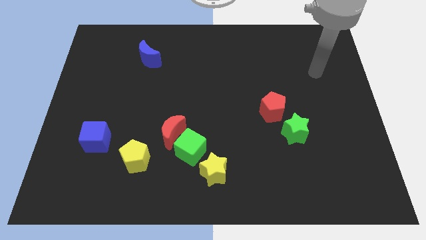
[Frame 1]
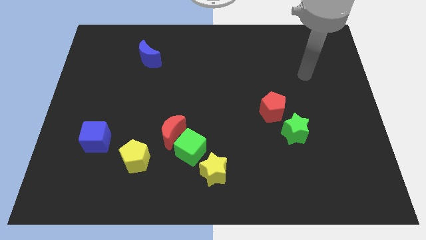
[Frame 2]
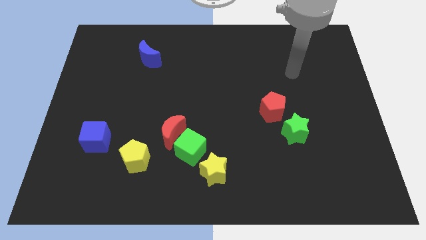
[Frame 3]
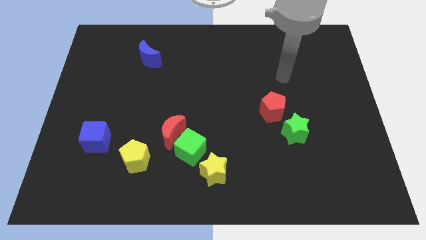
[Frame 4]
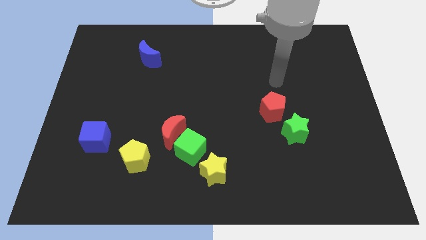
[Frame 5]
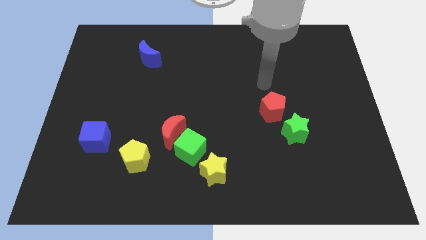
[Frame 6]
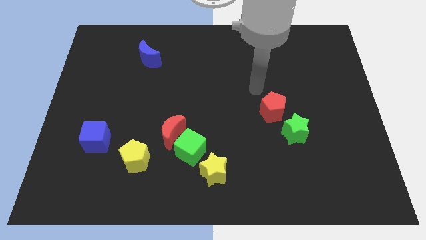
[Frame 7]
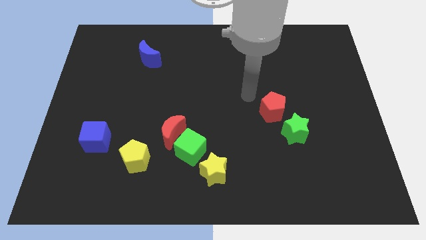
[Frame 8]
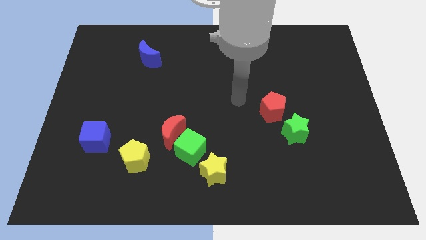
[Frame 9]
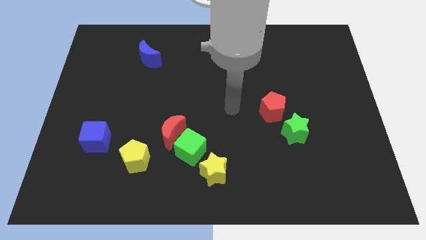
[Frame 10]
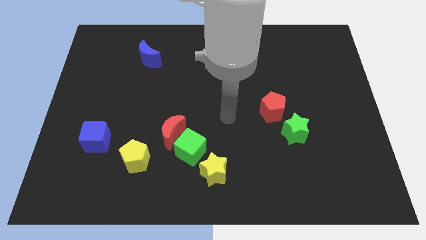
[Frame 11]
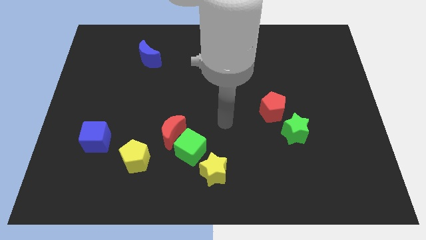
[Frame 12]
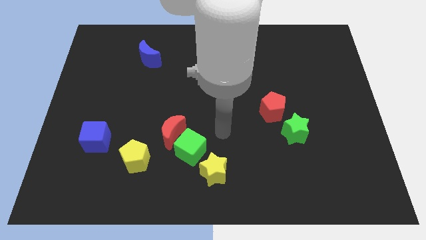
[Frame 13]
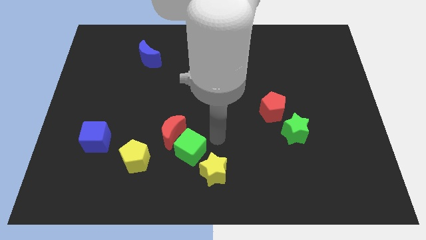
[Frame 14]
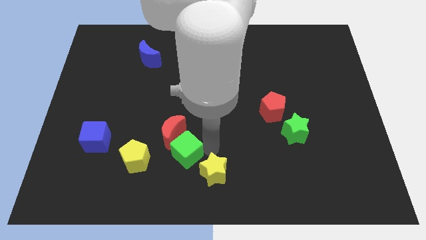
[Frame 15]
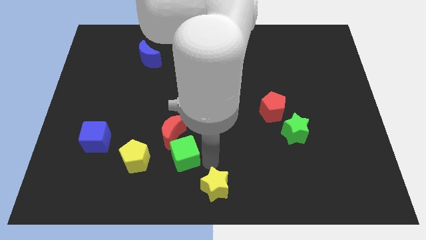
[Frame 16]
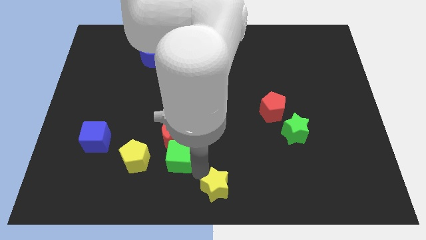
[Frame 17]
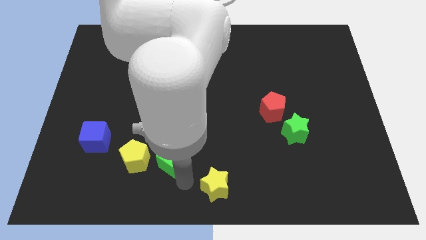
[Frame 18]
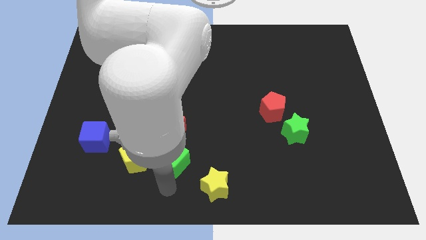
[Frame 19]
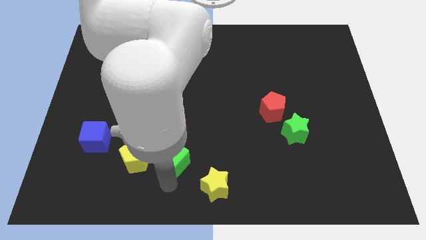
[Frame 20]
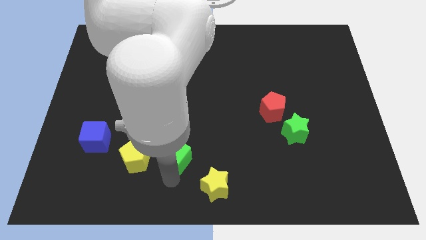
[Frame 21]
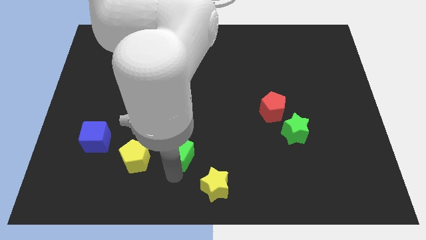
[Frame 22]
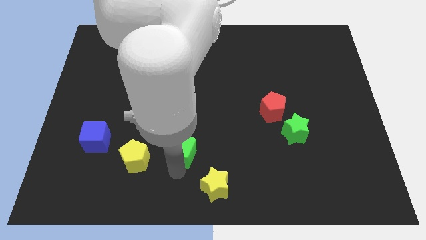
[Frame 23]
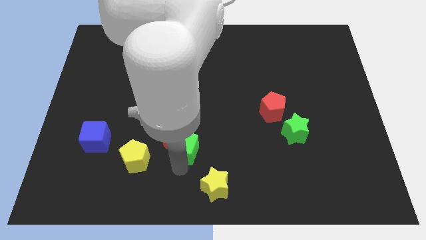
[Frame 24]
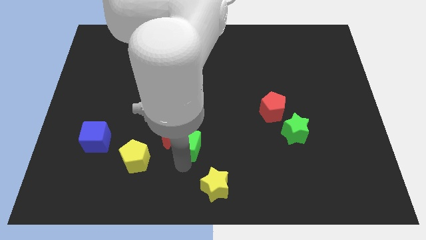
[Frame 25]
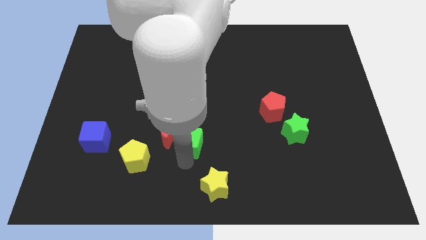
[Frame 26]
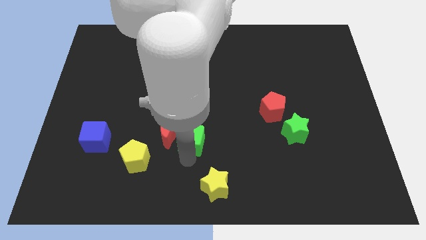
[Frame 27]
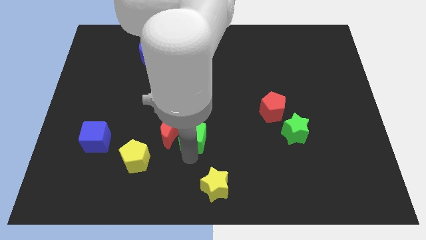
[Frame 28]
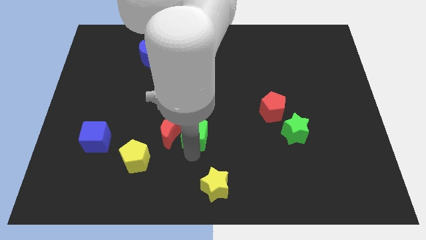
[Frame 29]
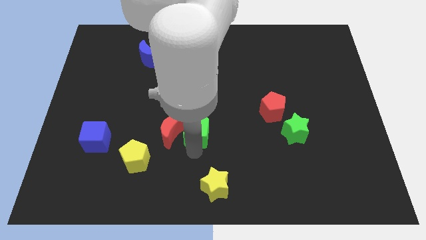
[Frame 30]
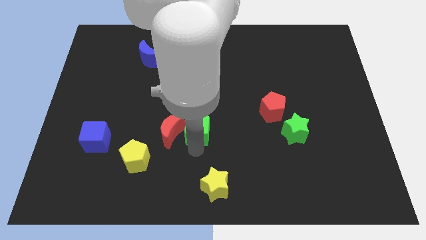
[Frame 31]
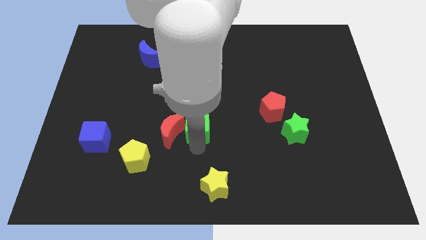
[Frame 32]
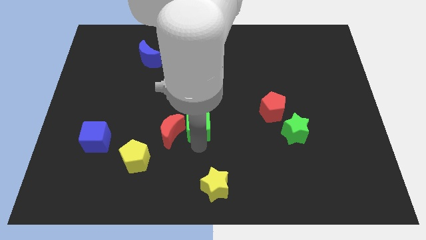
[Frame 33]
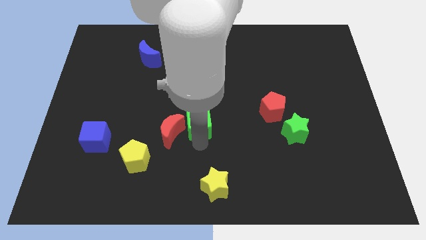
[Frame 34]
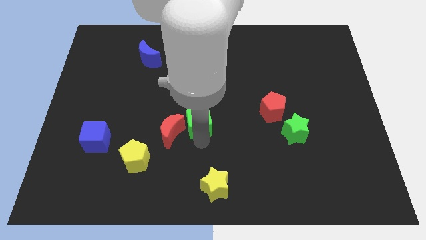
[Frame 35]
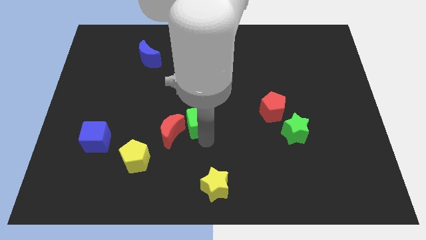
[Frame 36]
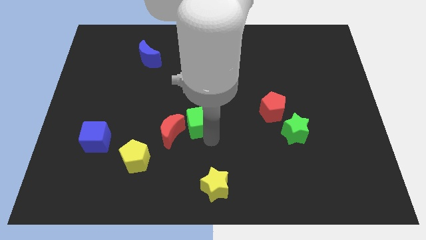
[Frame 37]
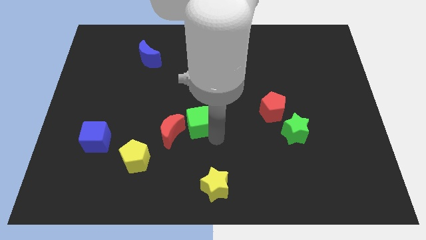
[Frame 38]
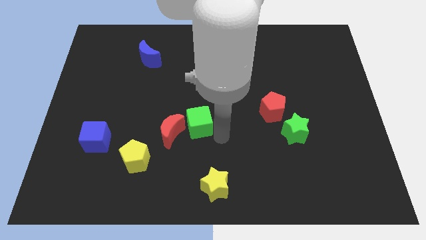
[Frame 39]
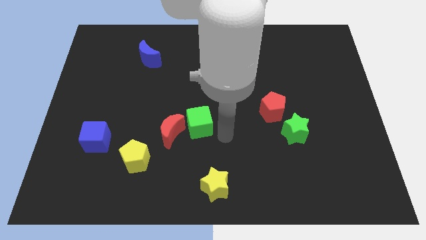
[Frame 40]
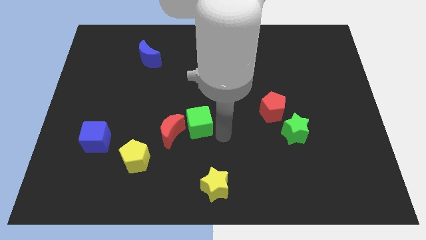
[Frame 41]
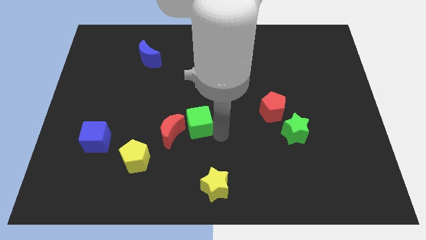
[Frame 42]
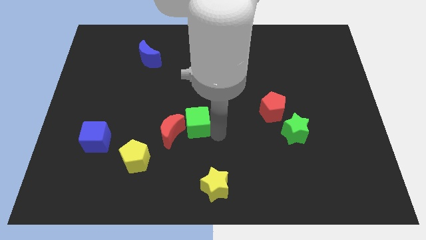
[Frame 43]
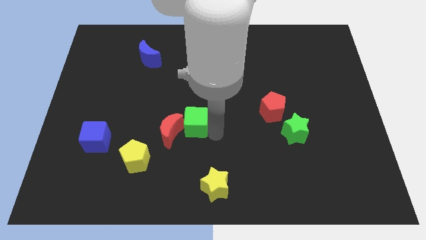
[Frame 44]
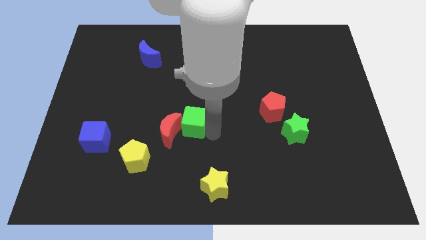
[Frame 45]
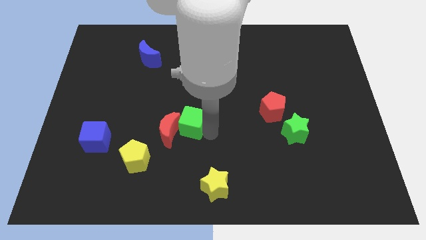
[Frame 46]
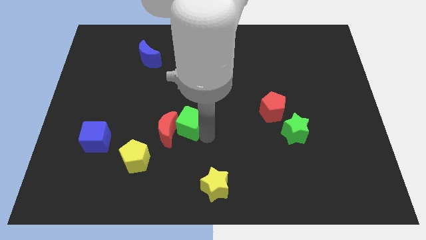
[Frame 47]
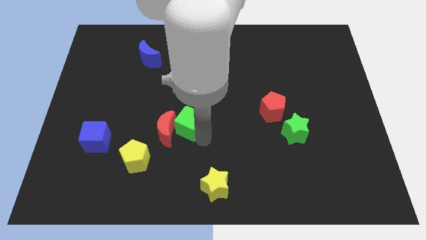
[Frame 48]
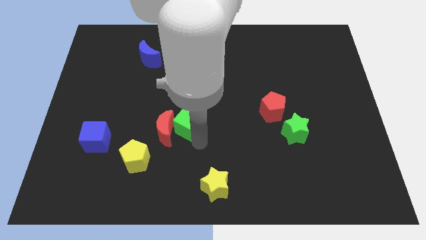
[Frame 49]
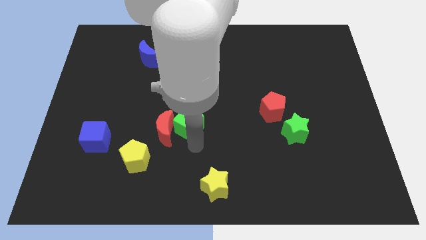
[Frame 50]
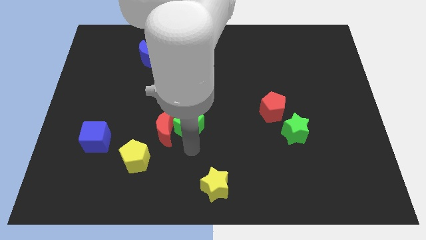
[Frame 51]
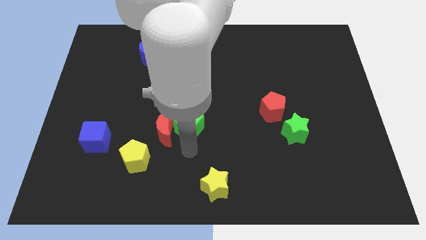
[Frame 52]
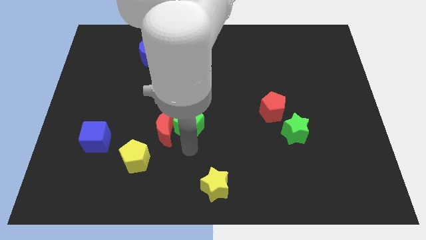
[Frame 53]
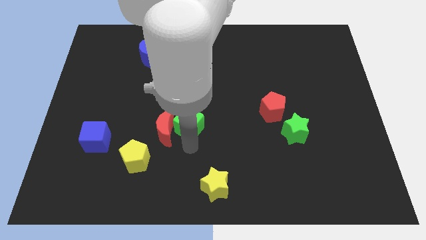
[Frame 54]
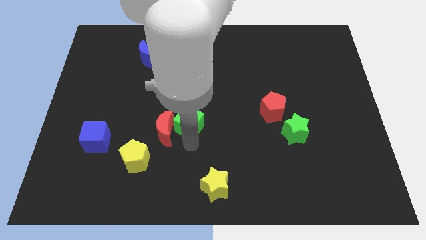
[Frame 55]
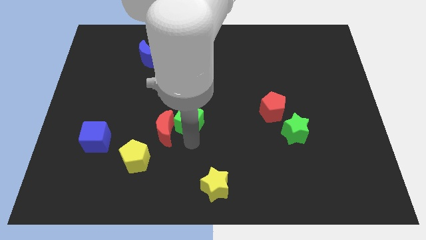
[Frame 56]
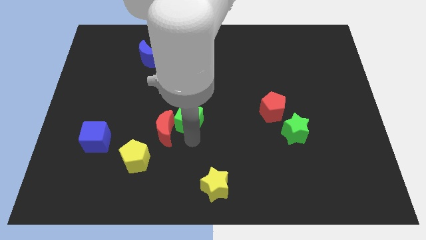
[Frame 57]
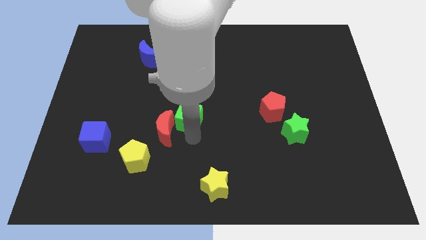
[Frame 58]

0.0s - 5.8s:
move the green cube away from the red moon and yellow star

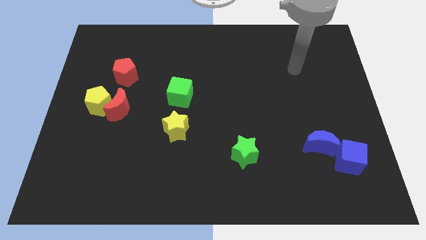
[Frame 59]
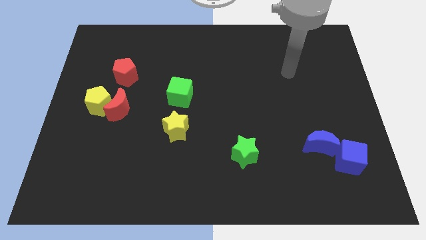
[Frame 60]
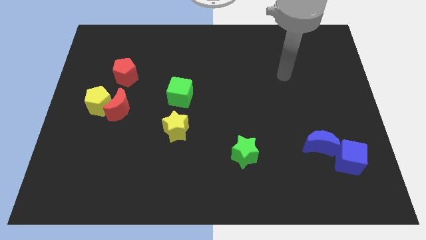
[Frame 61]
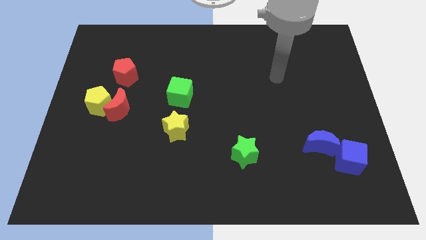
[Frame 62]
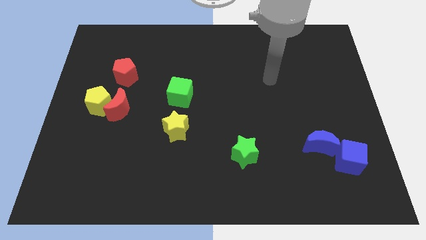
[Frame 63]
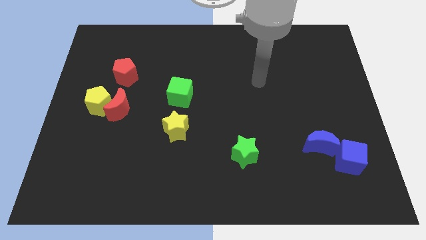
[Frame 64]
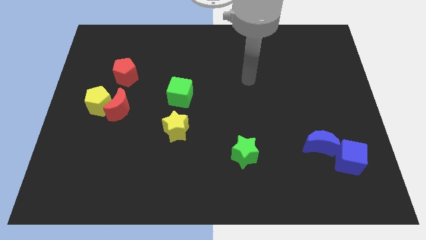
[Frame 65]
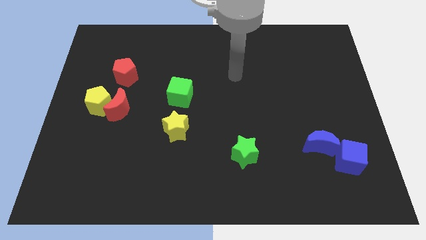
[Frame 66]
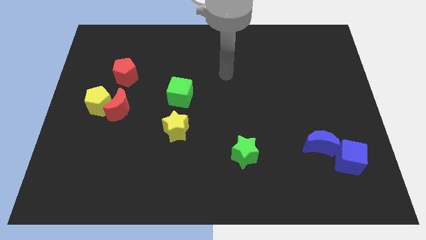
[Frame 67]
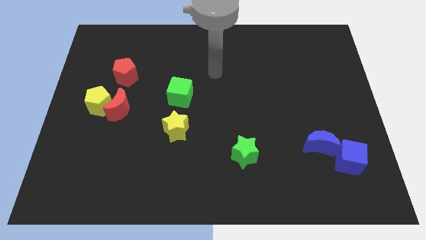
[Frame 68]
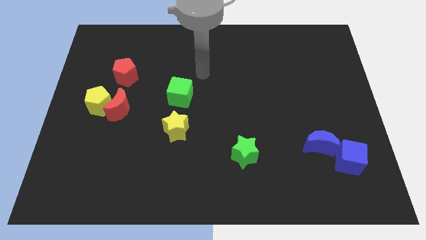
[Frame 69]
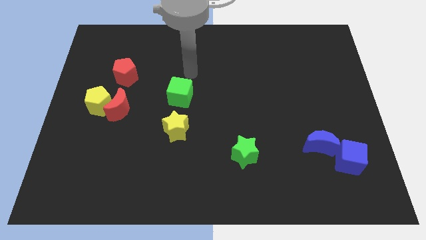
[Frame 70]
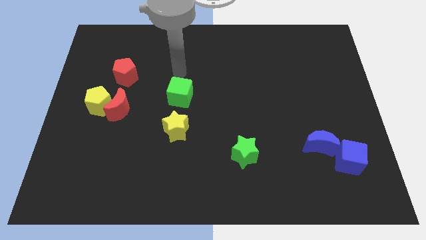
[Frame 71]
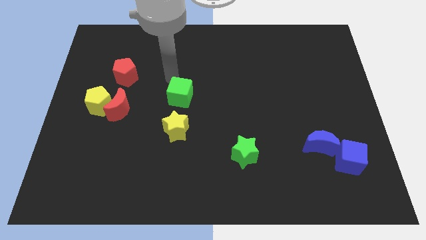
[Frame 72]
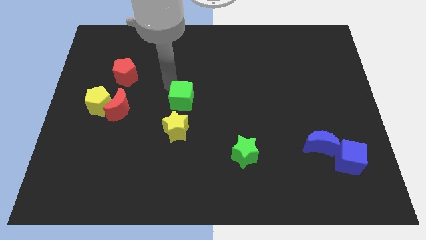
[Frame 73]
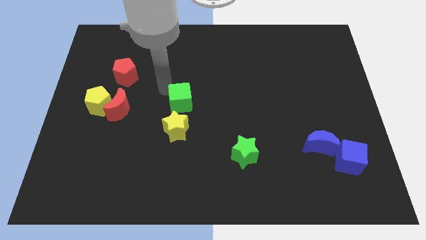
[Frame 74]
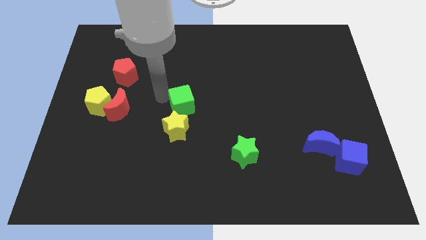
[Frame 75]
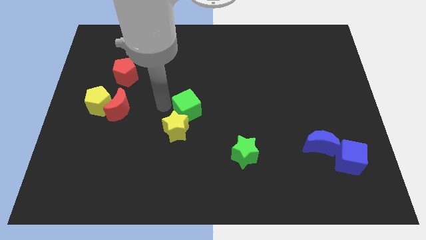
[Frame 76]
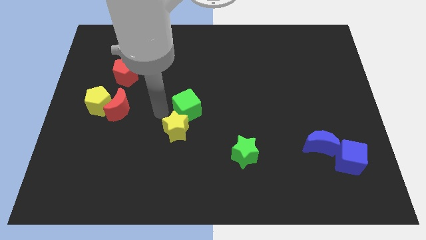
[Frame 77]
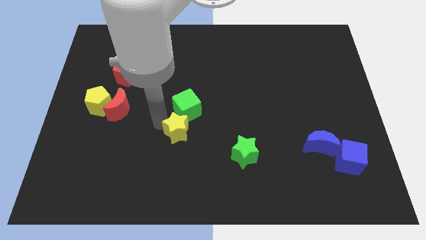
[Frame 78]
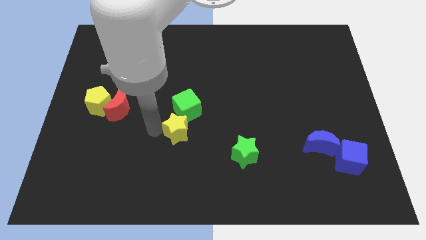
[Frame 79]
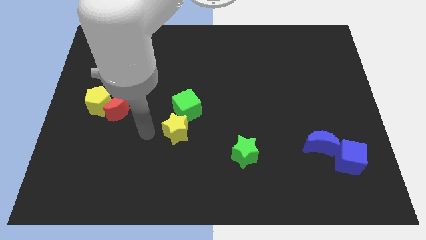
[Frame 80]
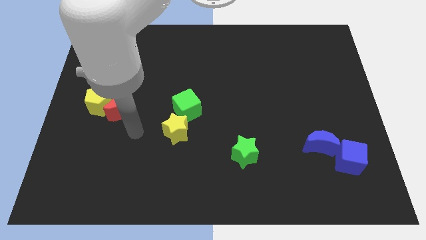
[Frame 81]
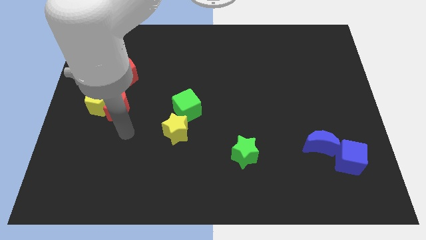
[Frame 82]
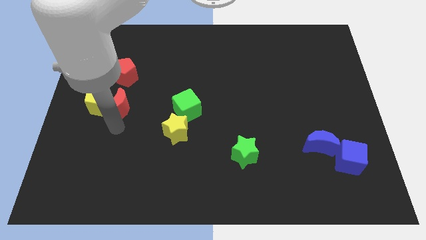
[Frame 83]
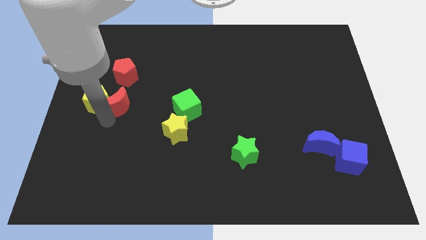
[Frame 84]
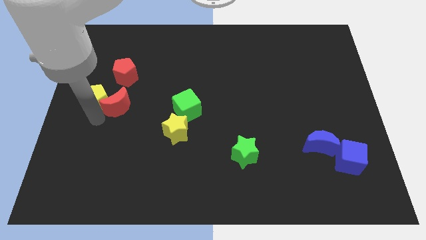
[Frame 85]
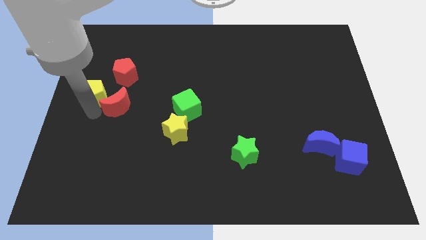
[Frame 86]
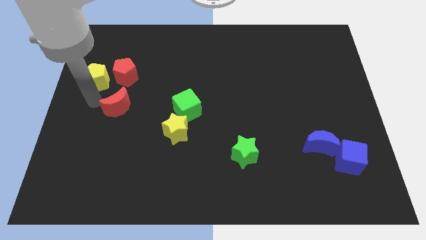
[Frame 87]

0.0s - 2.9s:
separate the red moon from the yellow pentagon

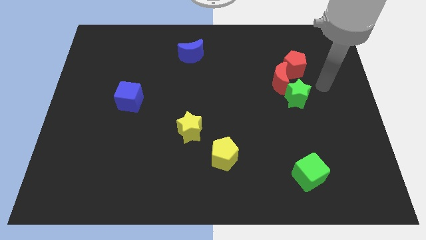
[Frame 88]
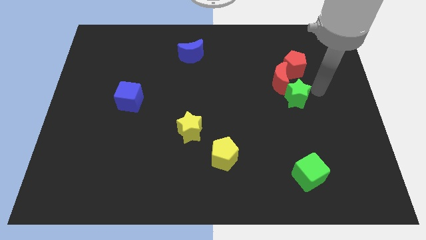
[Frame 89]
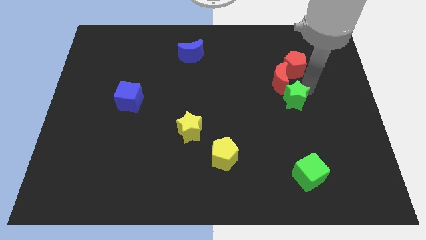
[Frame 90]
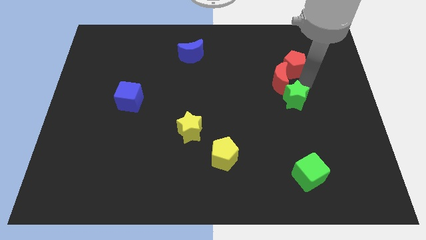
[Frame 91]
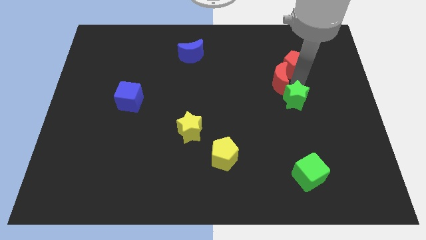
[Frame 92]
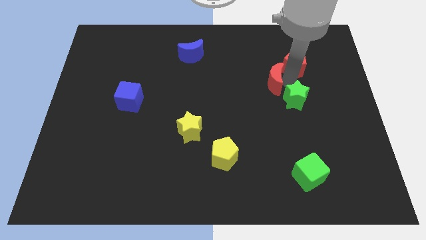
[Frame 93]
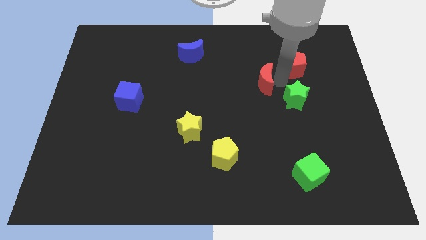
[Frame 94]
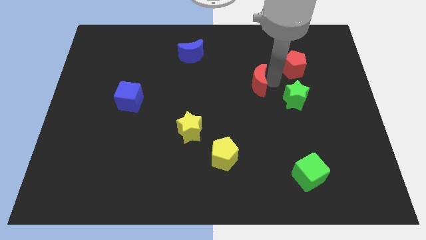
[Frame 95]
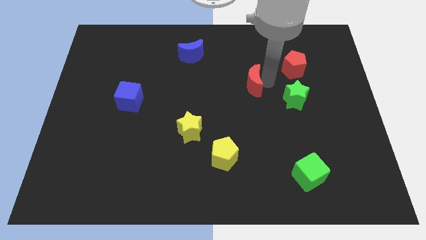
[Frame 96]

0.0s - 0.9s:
pull the red moon apart from the red pentagon and green star
